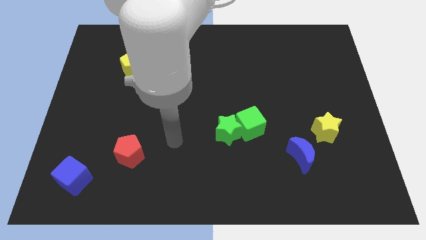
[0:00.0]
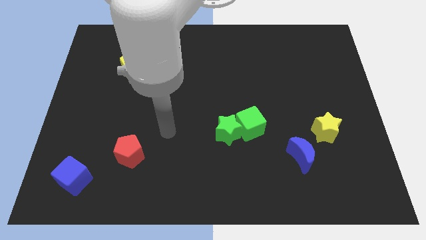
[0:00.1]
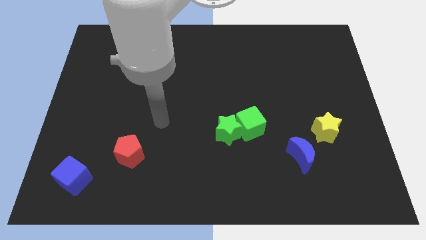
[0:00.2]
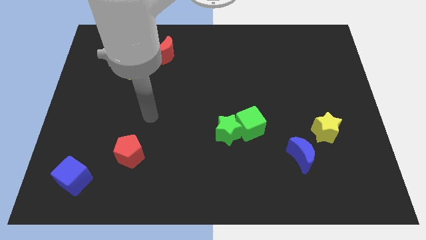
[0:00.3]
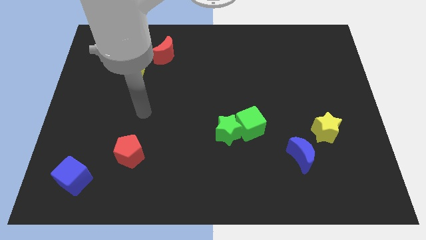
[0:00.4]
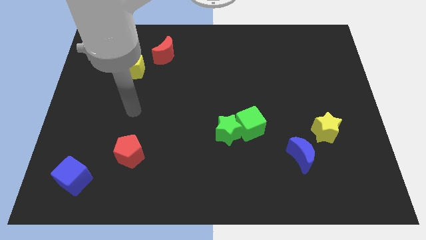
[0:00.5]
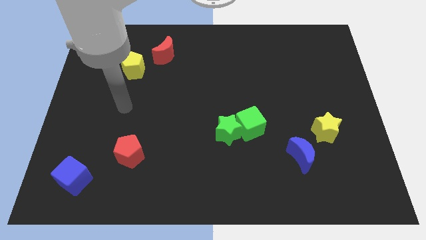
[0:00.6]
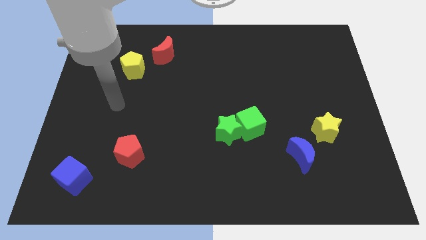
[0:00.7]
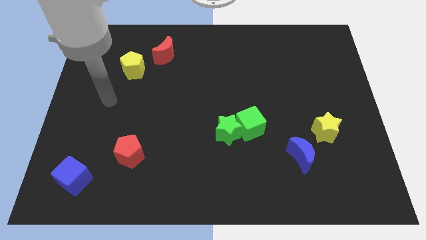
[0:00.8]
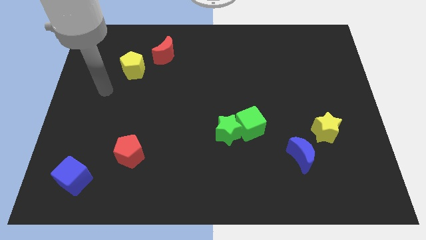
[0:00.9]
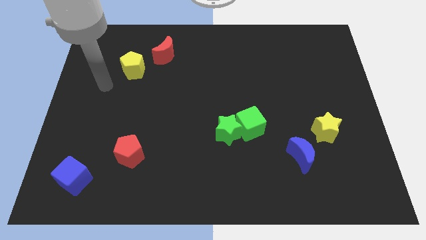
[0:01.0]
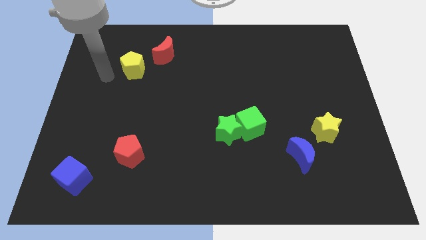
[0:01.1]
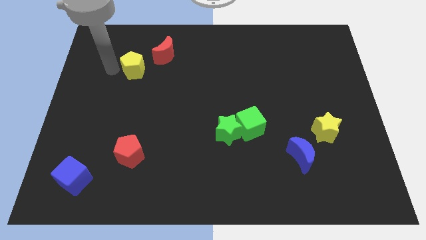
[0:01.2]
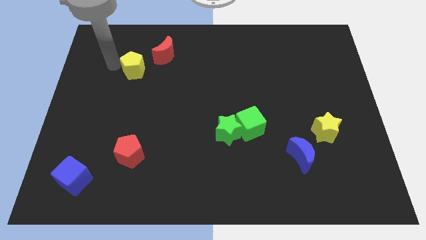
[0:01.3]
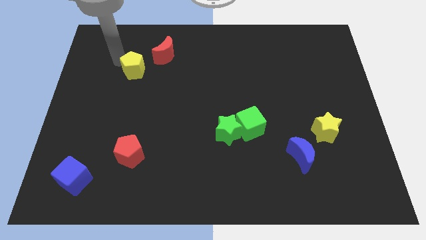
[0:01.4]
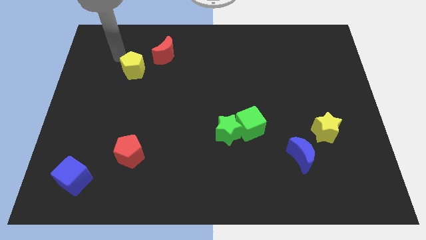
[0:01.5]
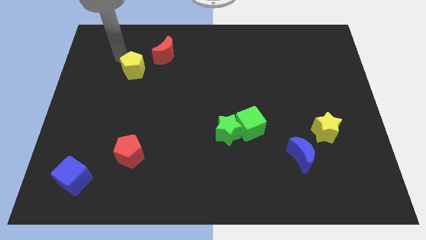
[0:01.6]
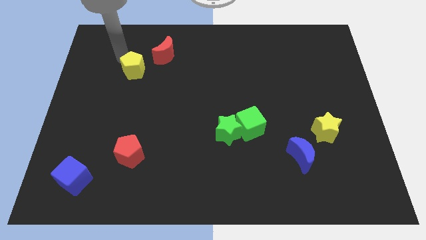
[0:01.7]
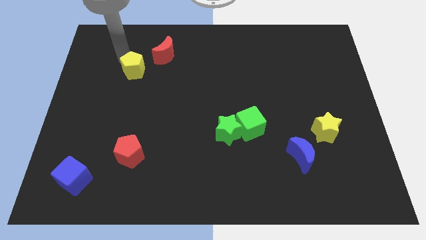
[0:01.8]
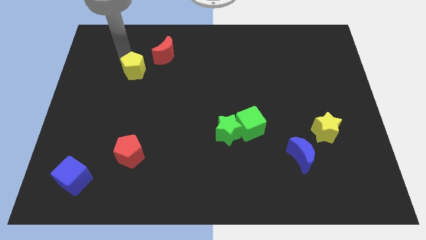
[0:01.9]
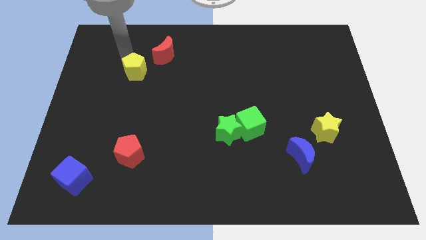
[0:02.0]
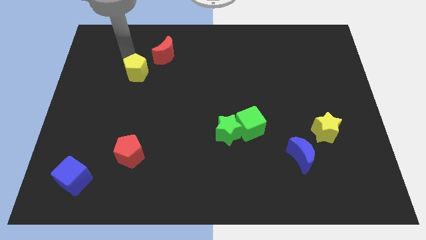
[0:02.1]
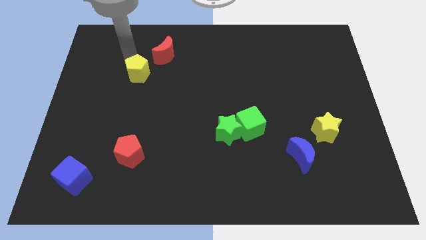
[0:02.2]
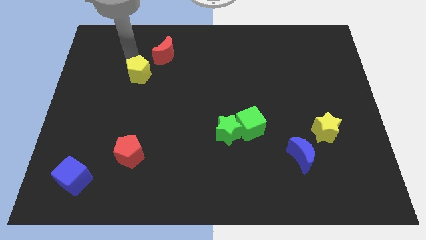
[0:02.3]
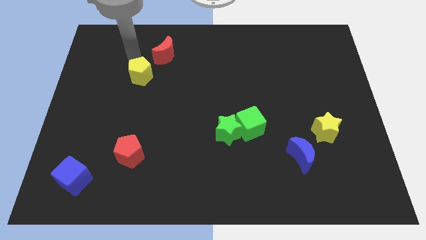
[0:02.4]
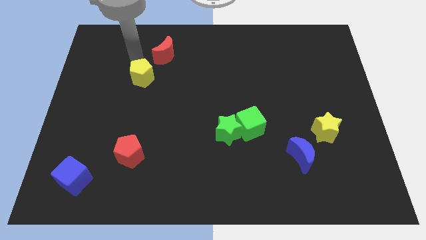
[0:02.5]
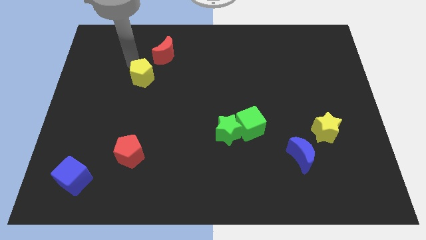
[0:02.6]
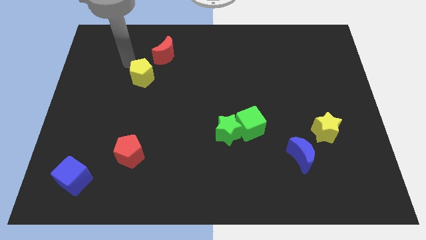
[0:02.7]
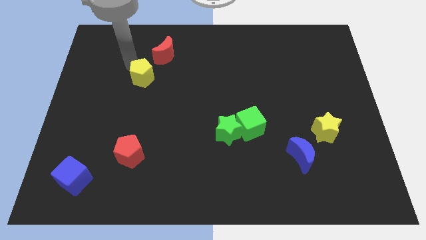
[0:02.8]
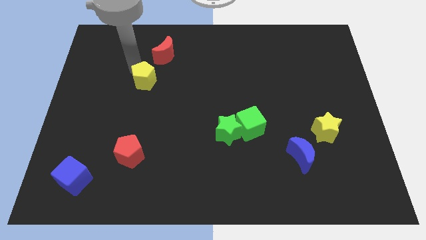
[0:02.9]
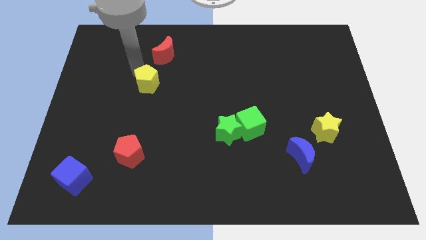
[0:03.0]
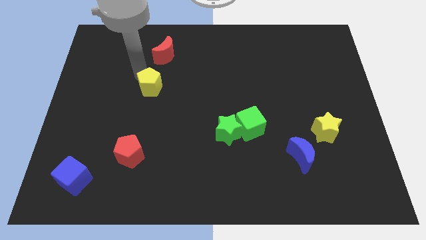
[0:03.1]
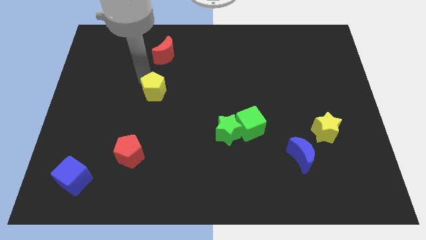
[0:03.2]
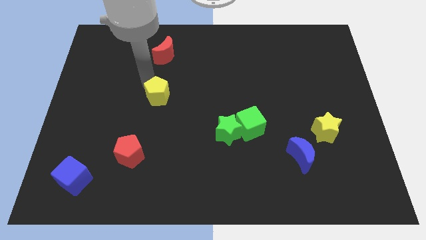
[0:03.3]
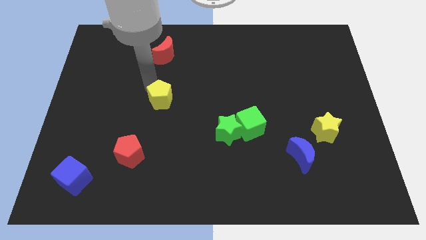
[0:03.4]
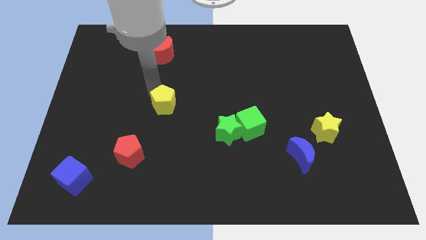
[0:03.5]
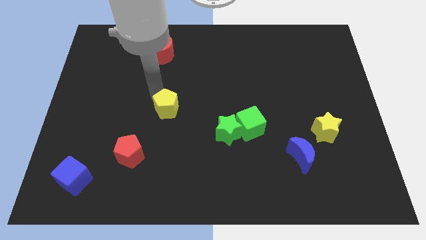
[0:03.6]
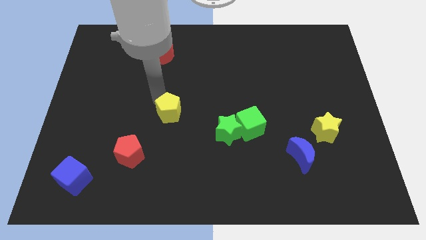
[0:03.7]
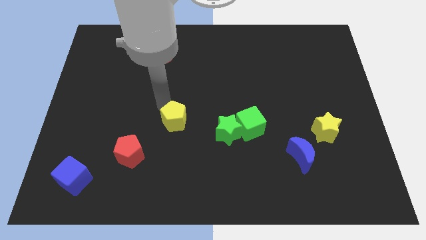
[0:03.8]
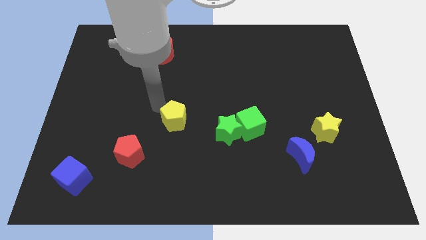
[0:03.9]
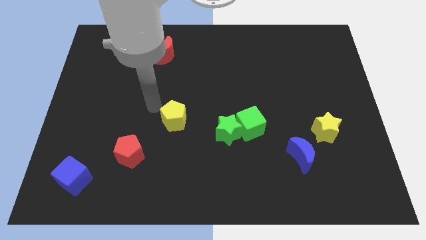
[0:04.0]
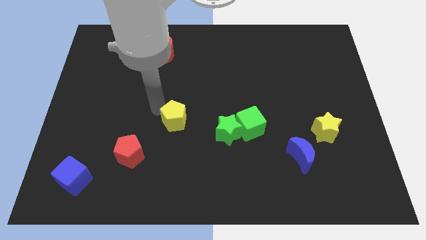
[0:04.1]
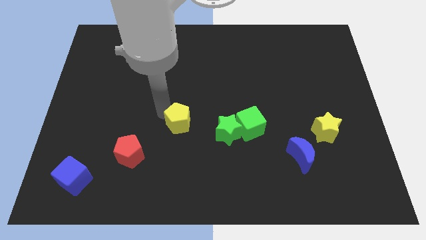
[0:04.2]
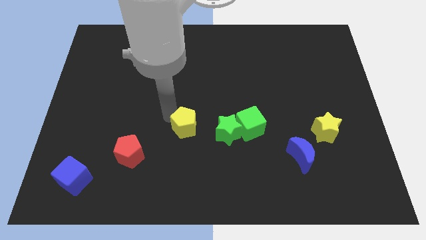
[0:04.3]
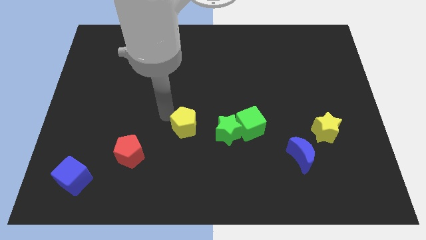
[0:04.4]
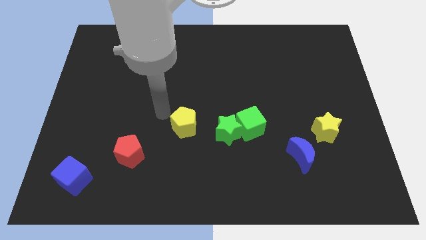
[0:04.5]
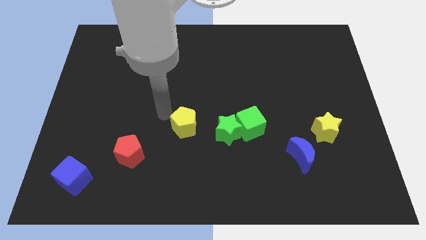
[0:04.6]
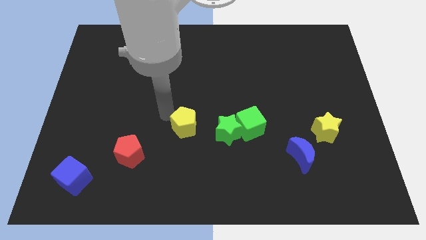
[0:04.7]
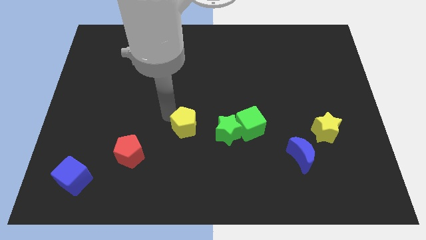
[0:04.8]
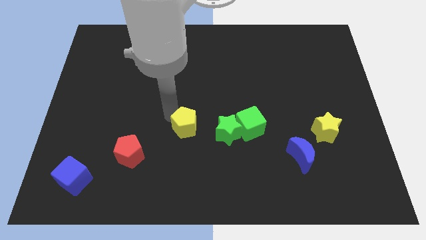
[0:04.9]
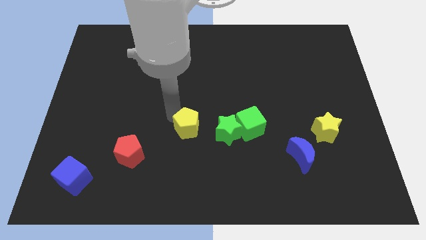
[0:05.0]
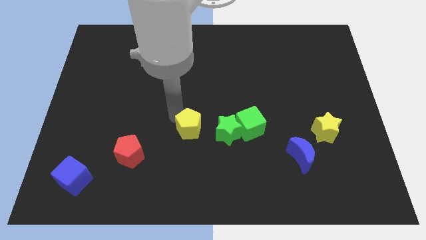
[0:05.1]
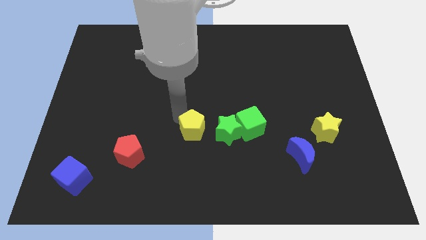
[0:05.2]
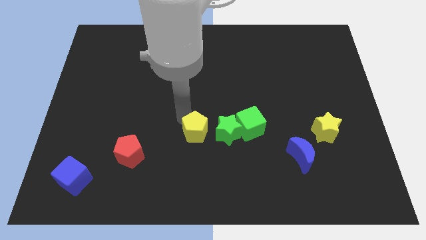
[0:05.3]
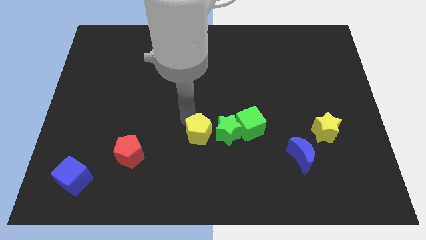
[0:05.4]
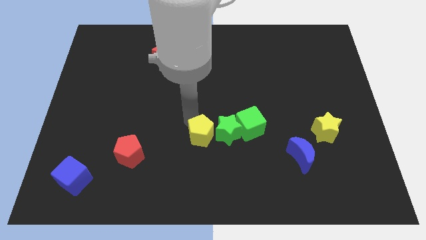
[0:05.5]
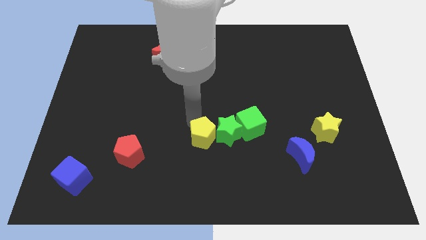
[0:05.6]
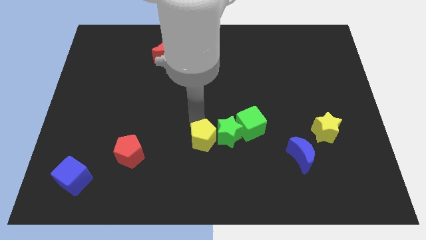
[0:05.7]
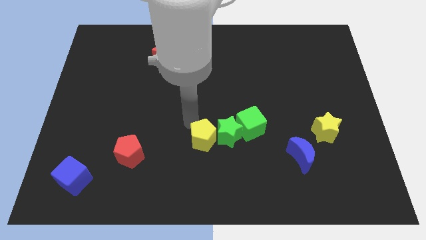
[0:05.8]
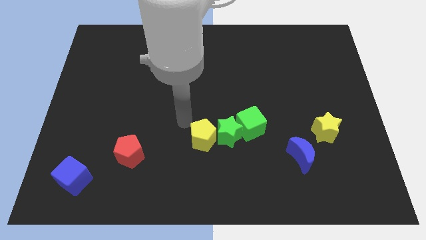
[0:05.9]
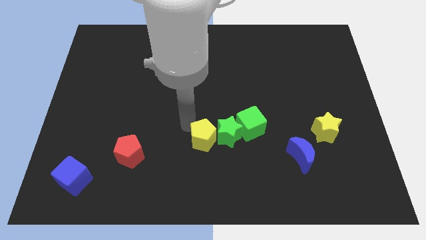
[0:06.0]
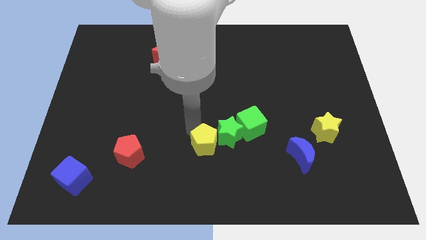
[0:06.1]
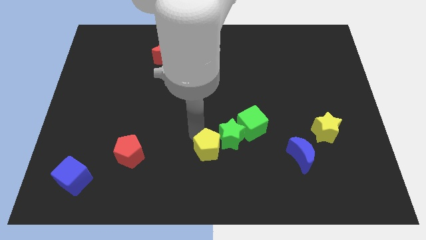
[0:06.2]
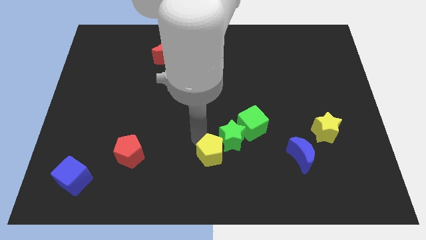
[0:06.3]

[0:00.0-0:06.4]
put the yellow pentagon below the green star

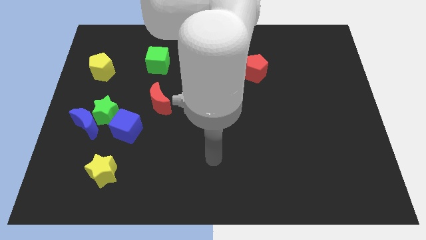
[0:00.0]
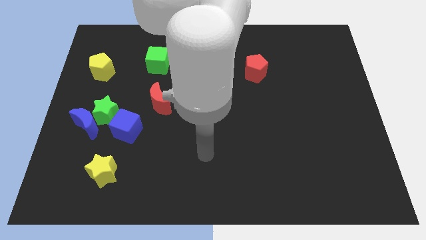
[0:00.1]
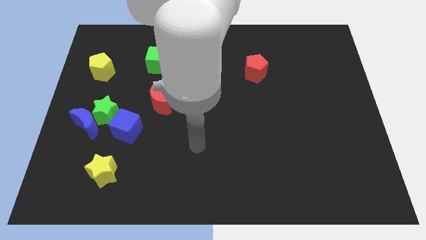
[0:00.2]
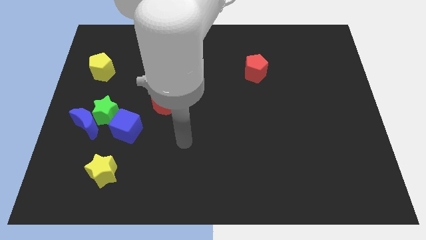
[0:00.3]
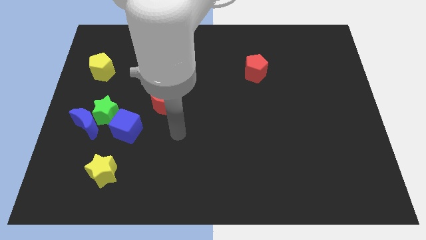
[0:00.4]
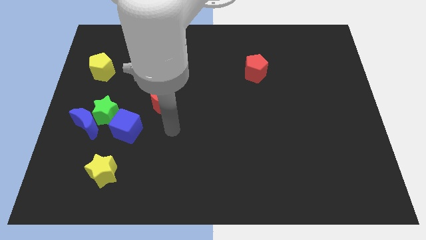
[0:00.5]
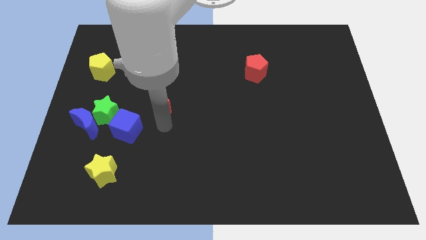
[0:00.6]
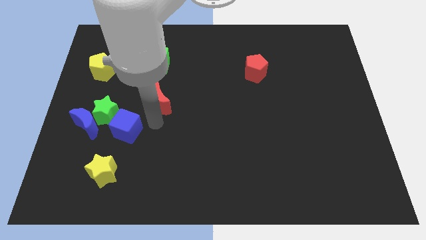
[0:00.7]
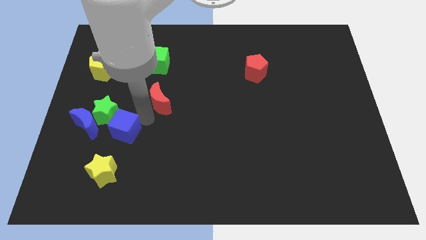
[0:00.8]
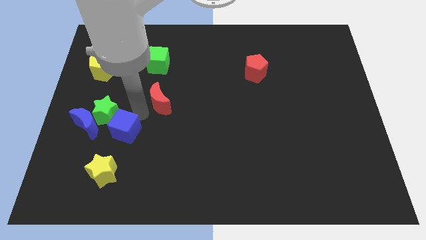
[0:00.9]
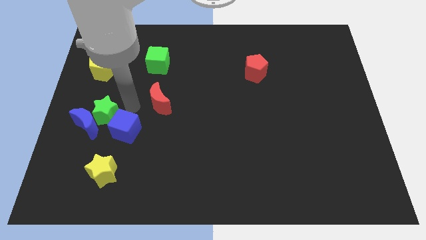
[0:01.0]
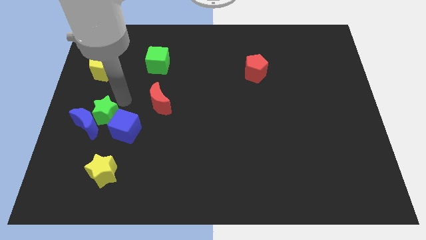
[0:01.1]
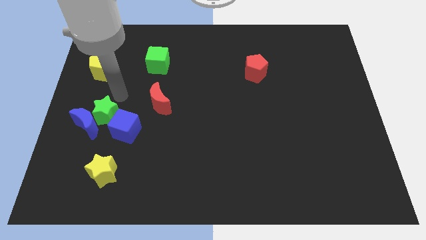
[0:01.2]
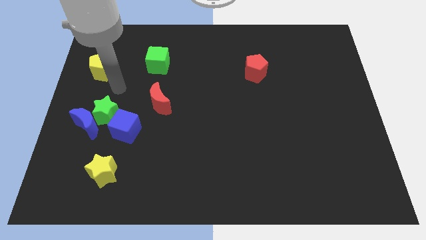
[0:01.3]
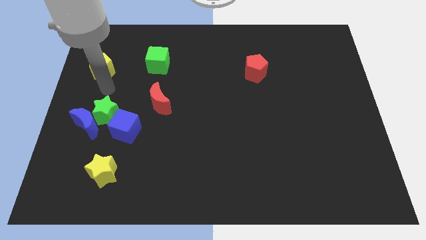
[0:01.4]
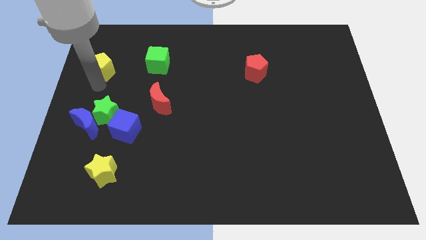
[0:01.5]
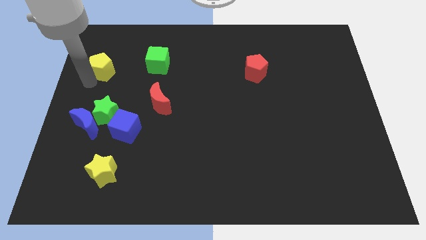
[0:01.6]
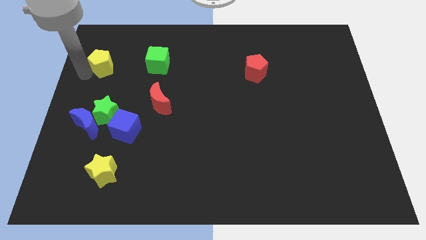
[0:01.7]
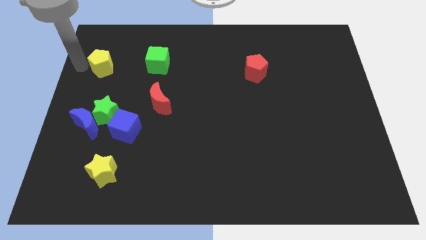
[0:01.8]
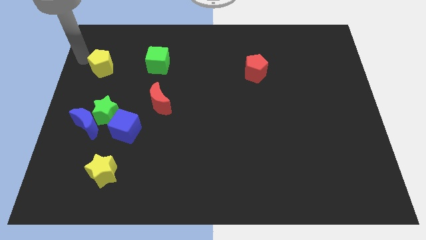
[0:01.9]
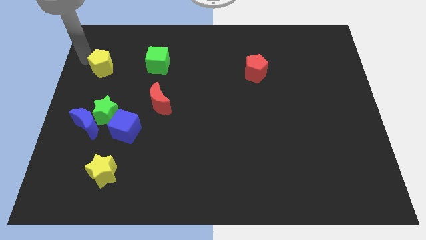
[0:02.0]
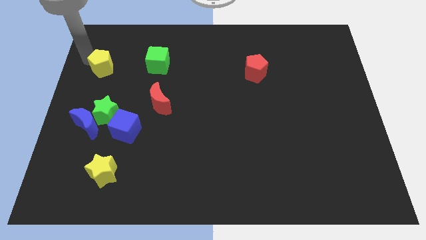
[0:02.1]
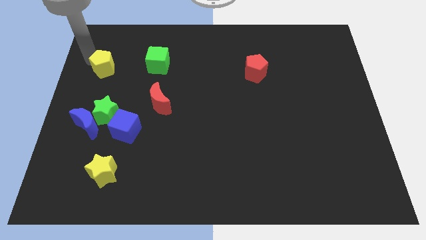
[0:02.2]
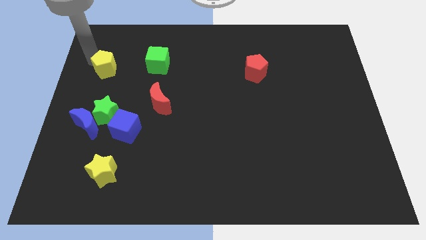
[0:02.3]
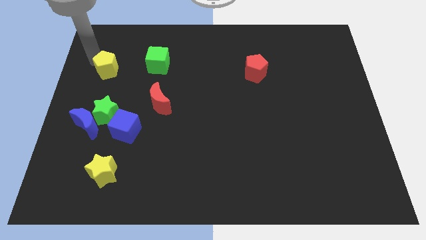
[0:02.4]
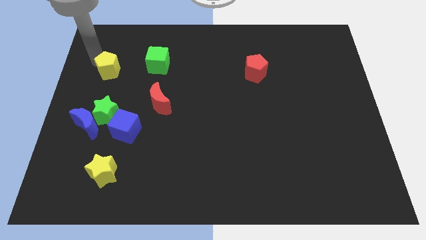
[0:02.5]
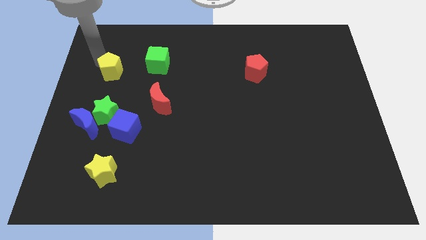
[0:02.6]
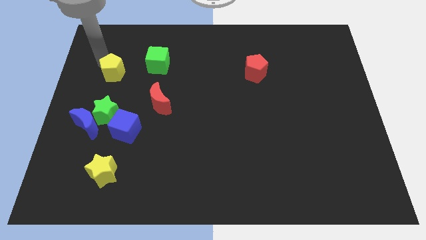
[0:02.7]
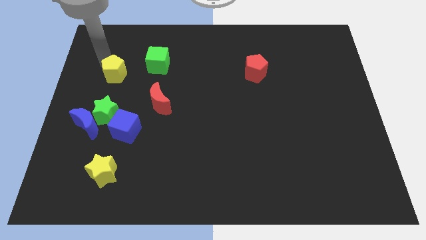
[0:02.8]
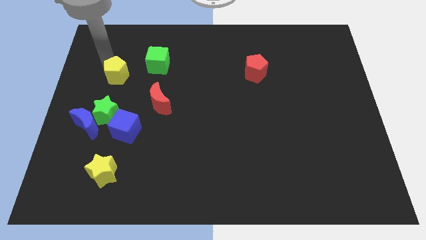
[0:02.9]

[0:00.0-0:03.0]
move the yellow pentagon to the bottom left of the green cube
